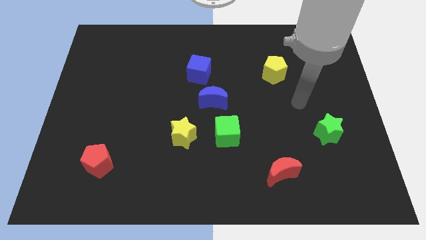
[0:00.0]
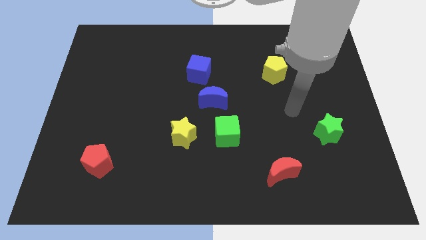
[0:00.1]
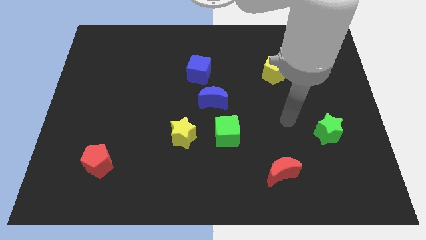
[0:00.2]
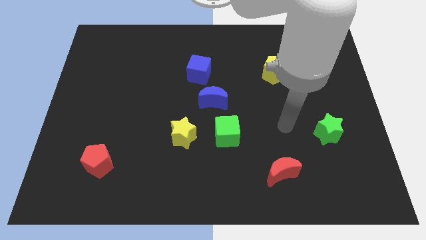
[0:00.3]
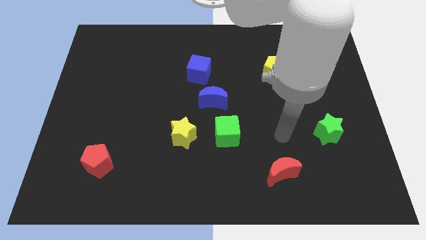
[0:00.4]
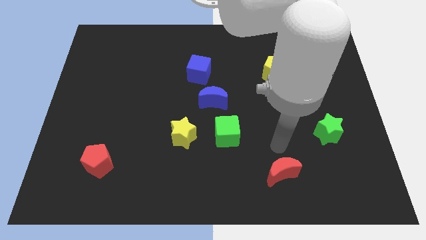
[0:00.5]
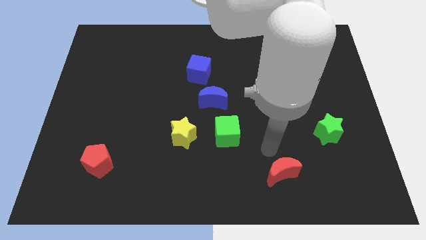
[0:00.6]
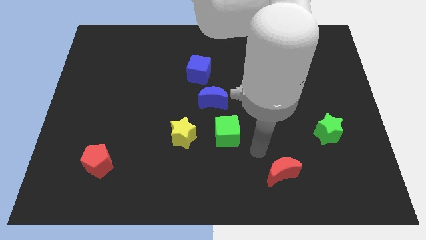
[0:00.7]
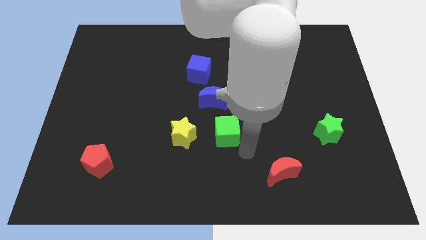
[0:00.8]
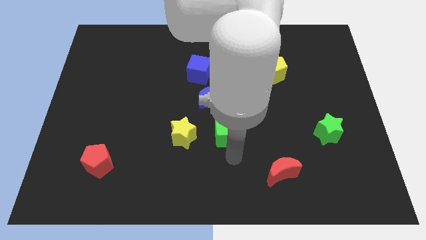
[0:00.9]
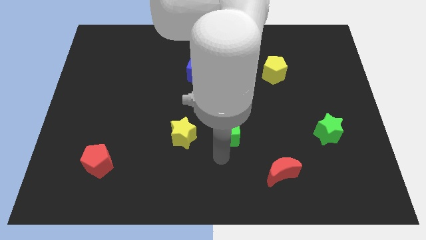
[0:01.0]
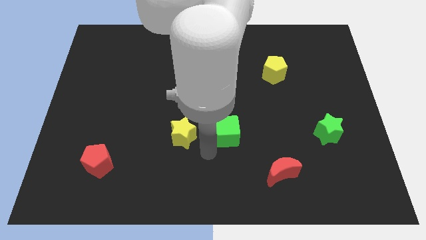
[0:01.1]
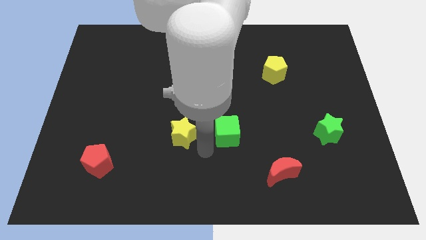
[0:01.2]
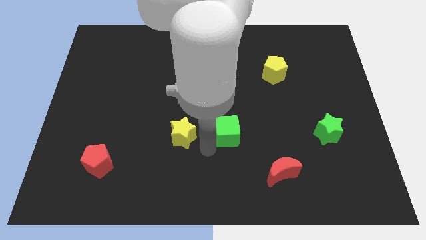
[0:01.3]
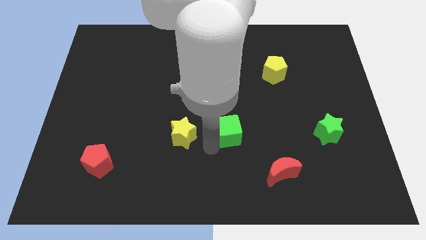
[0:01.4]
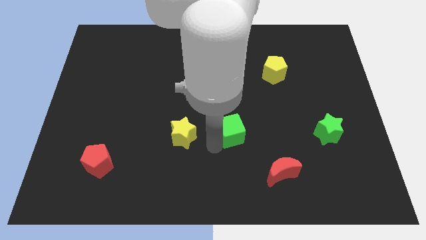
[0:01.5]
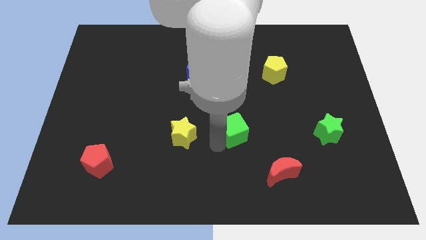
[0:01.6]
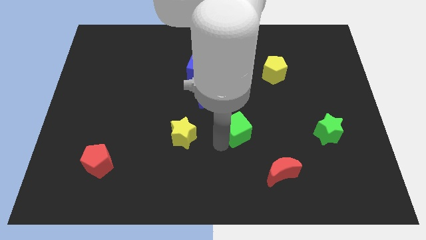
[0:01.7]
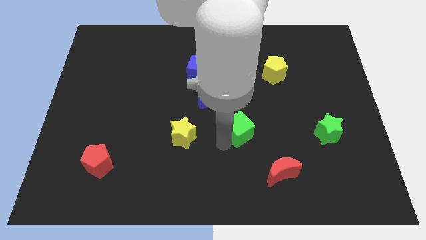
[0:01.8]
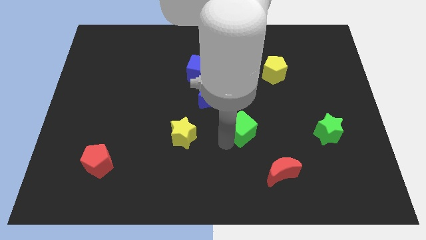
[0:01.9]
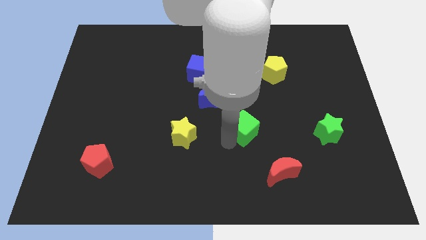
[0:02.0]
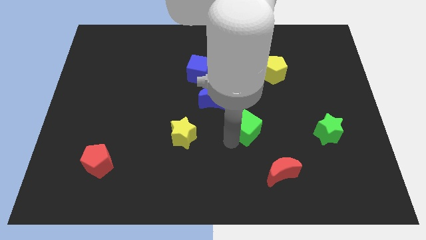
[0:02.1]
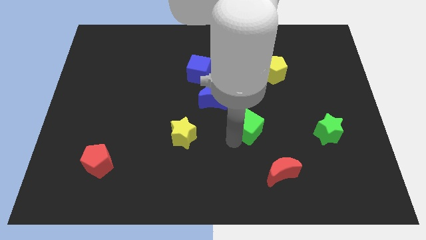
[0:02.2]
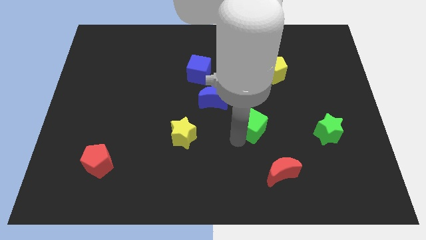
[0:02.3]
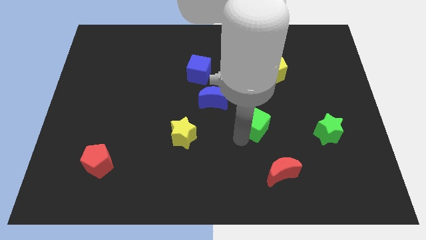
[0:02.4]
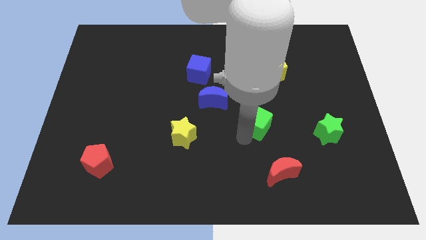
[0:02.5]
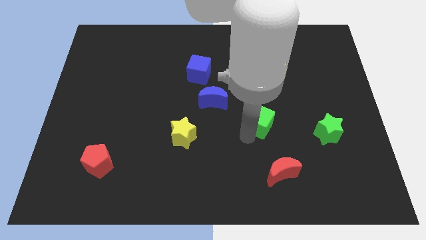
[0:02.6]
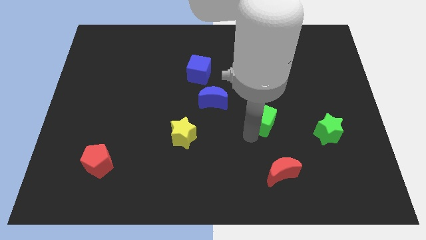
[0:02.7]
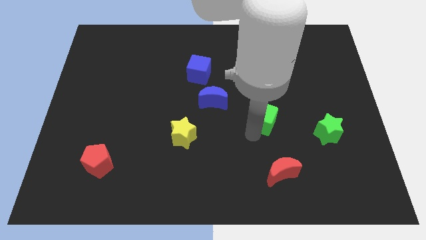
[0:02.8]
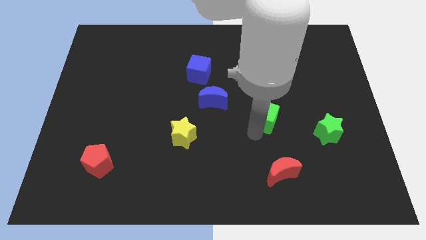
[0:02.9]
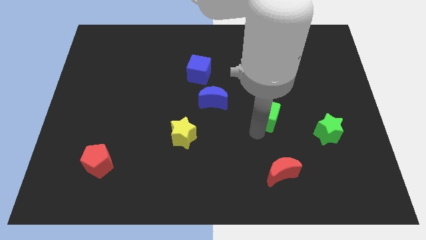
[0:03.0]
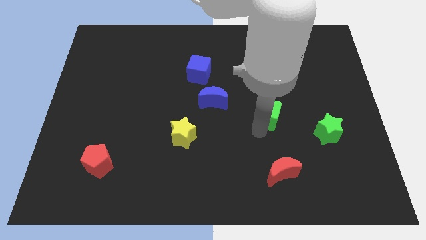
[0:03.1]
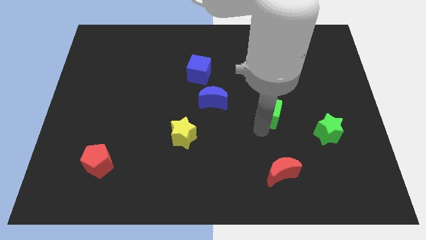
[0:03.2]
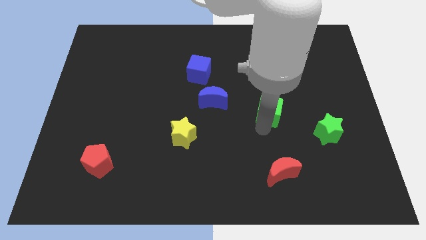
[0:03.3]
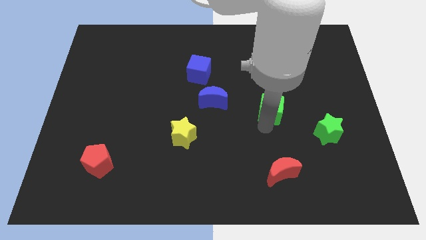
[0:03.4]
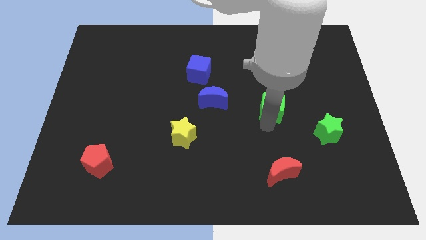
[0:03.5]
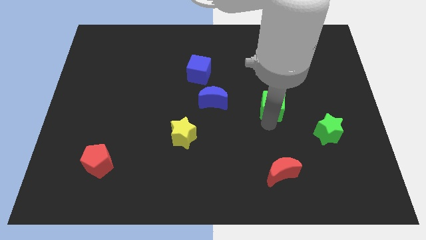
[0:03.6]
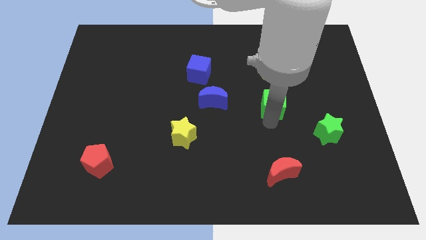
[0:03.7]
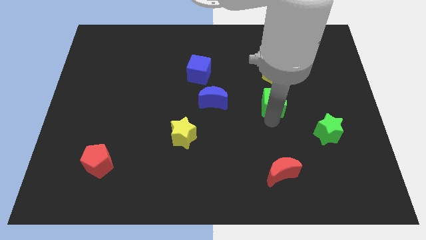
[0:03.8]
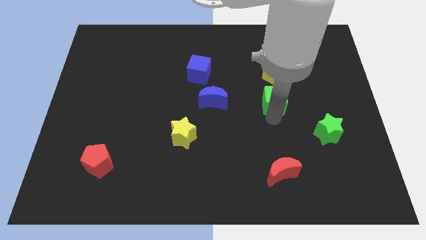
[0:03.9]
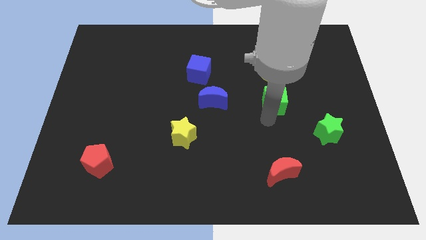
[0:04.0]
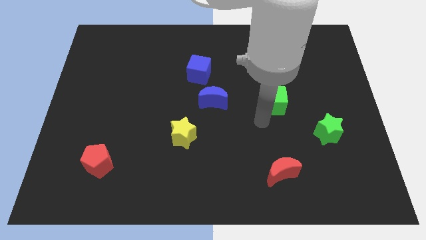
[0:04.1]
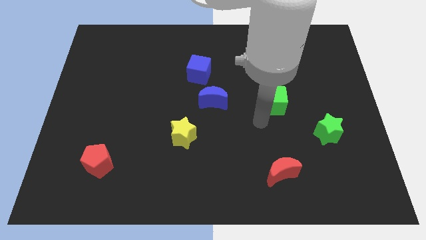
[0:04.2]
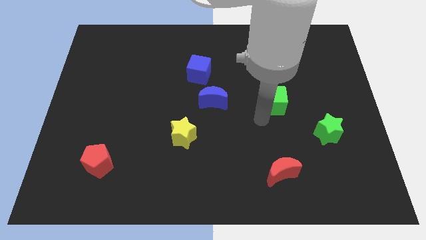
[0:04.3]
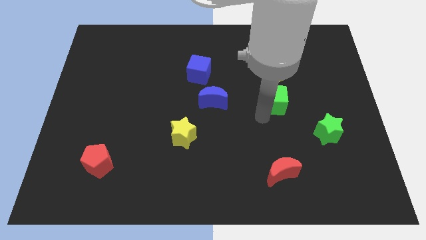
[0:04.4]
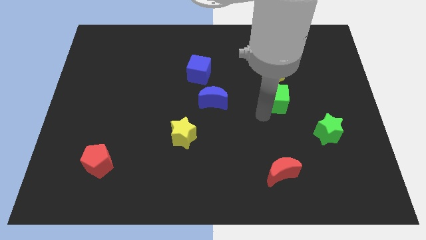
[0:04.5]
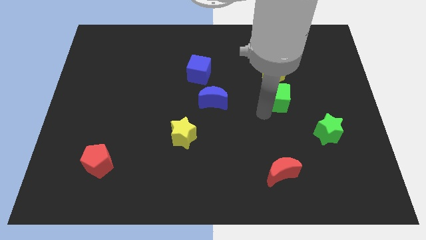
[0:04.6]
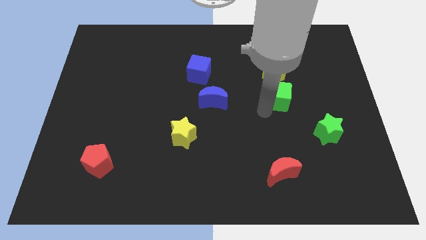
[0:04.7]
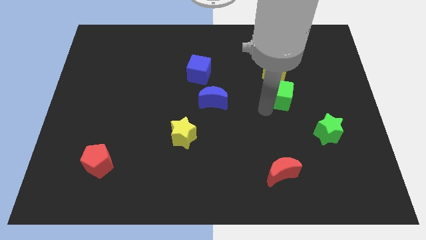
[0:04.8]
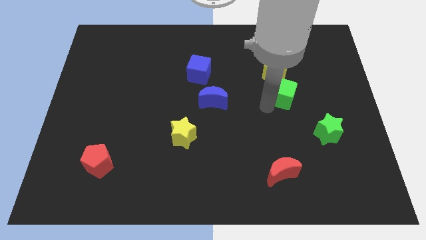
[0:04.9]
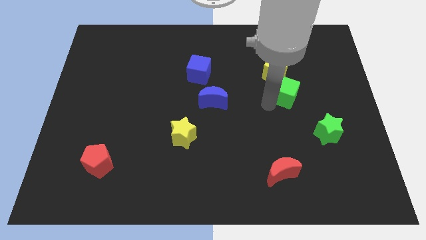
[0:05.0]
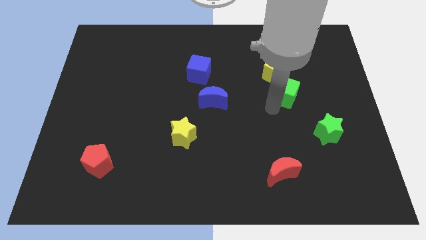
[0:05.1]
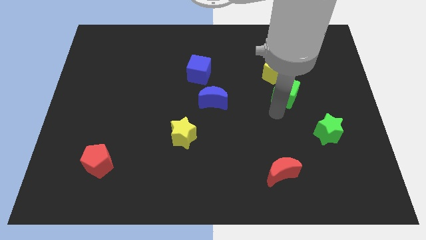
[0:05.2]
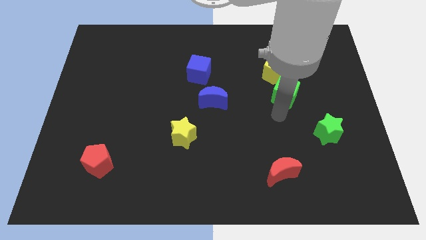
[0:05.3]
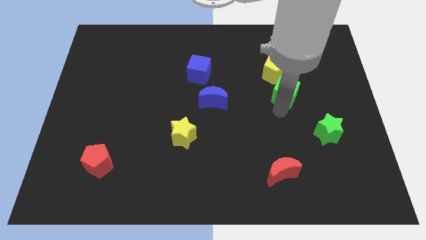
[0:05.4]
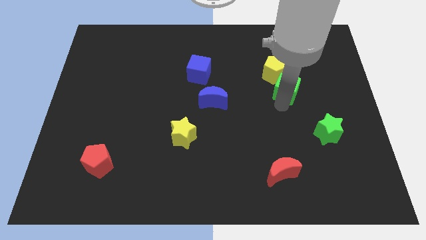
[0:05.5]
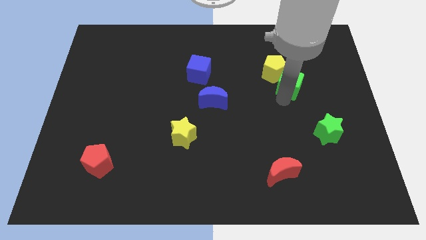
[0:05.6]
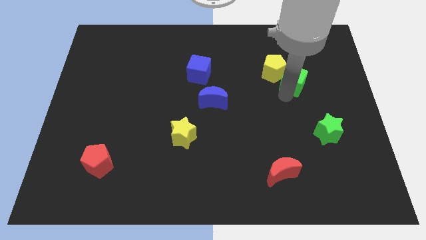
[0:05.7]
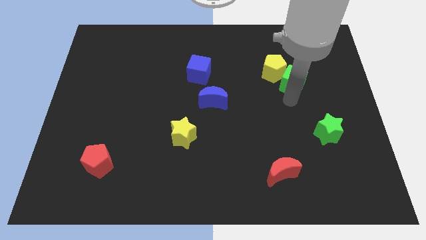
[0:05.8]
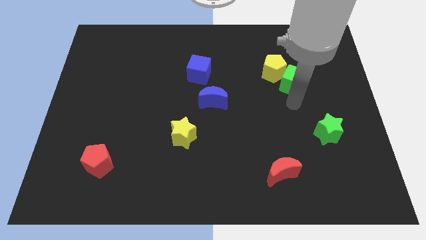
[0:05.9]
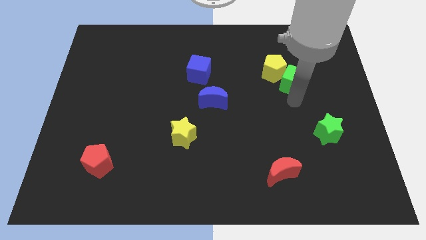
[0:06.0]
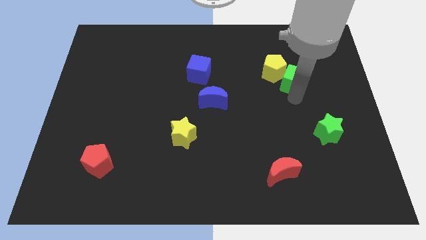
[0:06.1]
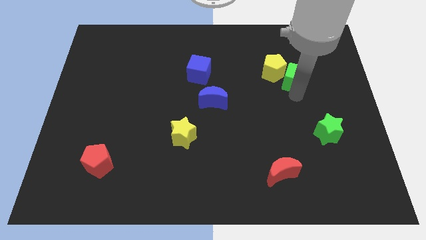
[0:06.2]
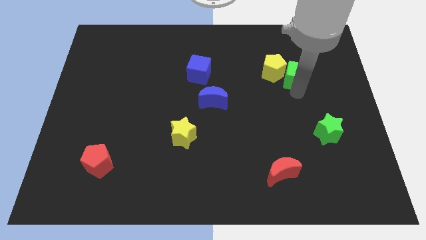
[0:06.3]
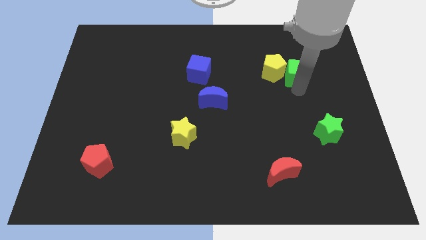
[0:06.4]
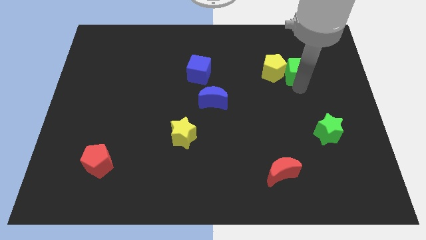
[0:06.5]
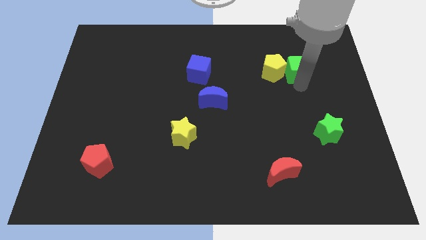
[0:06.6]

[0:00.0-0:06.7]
push the green cube to the top right side of the yellow pentagon
